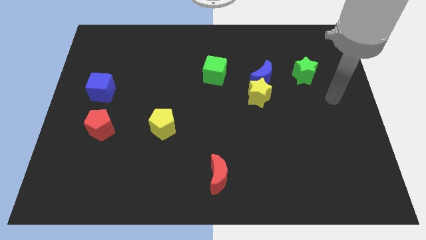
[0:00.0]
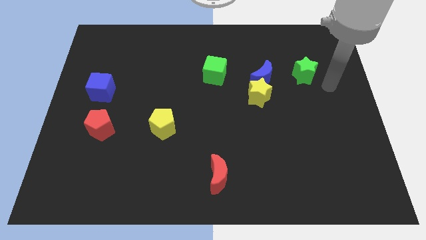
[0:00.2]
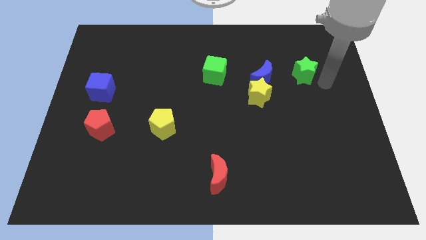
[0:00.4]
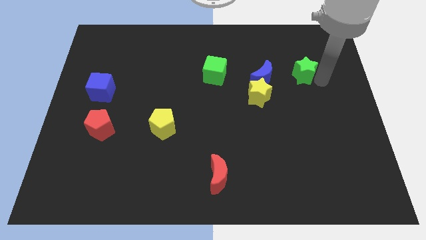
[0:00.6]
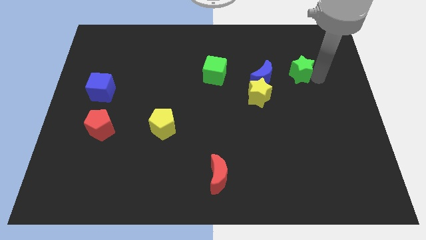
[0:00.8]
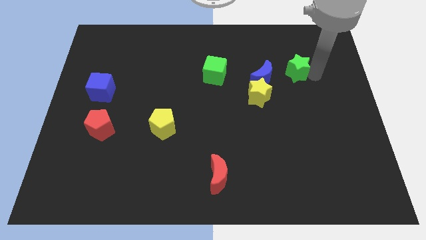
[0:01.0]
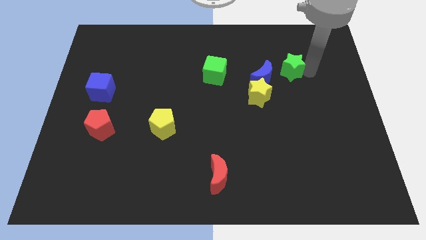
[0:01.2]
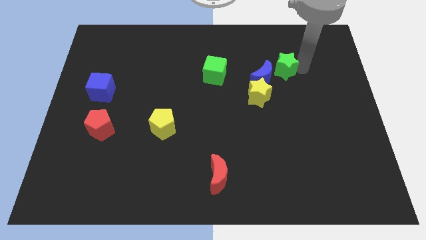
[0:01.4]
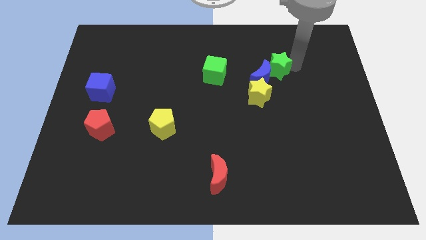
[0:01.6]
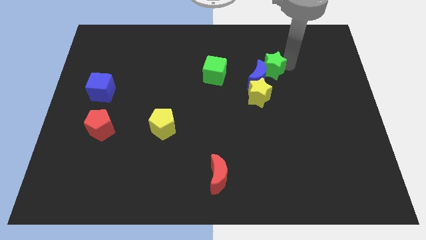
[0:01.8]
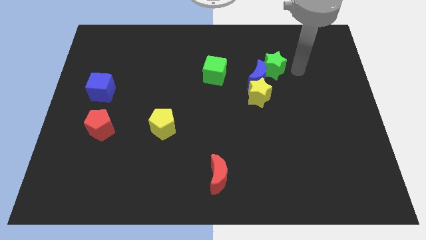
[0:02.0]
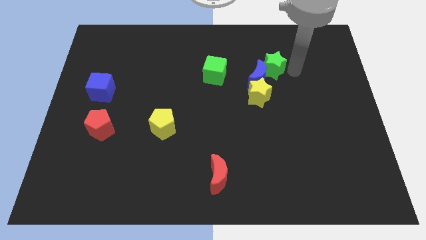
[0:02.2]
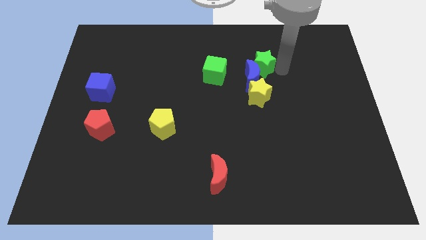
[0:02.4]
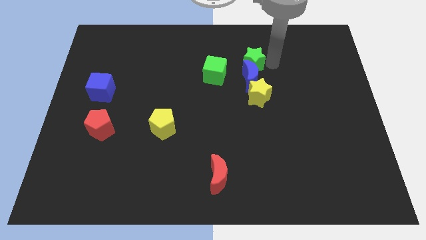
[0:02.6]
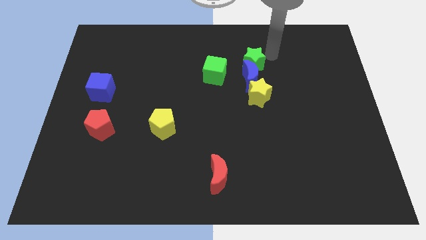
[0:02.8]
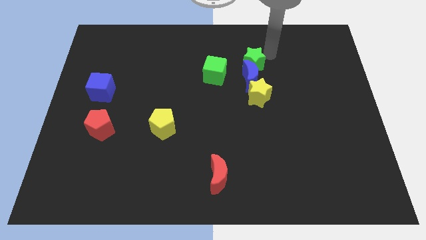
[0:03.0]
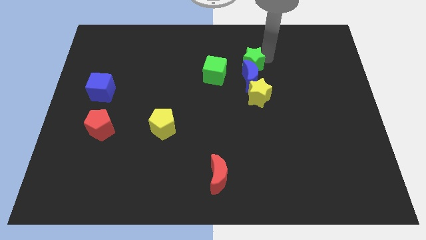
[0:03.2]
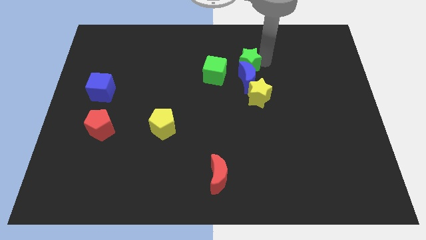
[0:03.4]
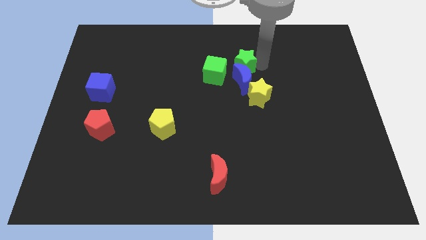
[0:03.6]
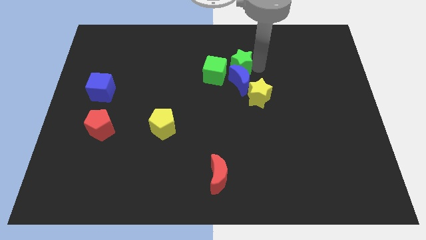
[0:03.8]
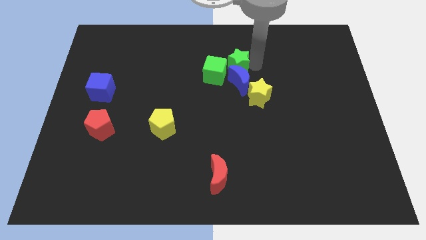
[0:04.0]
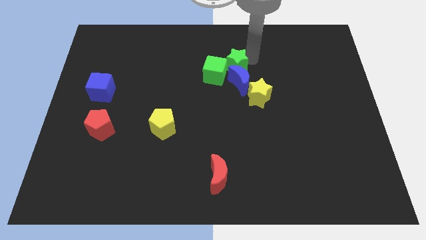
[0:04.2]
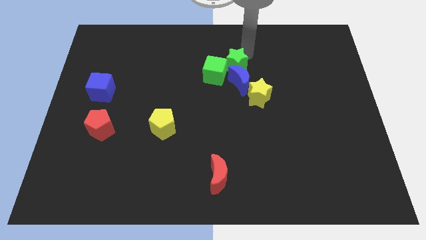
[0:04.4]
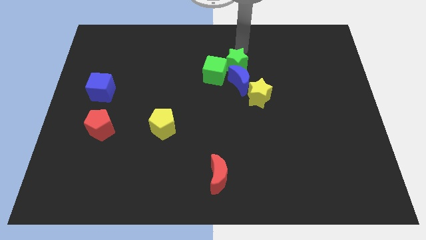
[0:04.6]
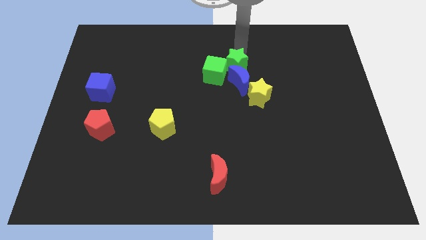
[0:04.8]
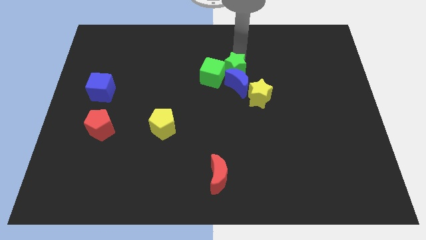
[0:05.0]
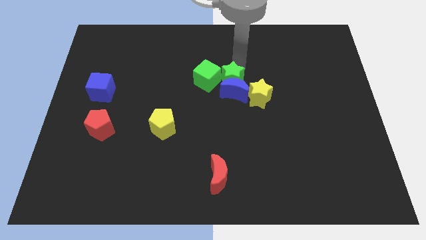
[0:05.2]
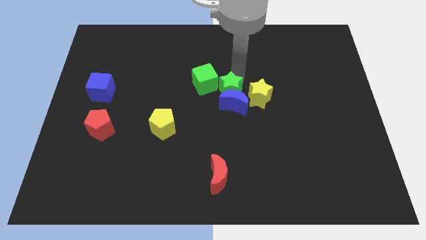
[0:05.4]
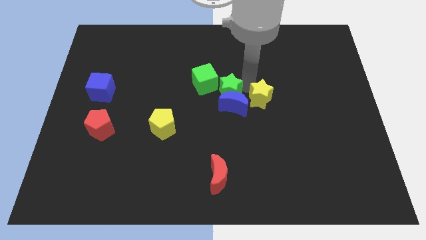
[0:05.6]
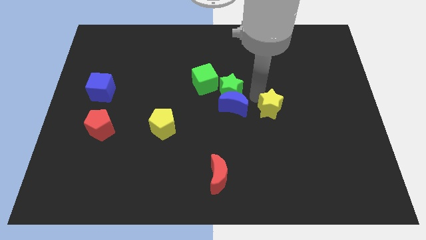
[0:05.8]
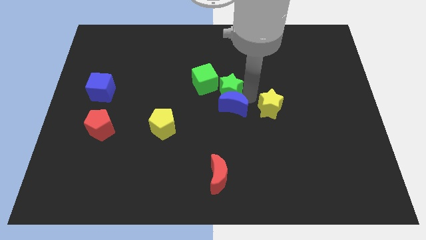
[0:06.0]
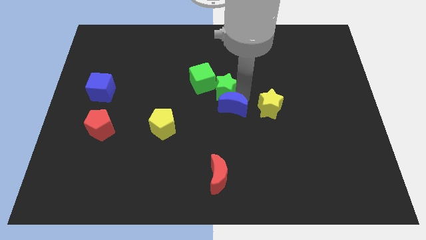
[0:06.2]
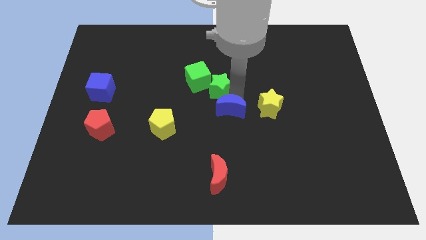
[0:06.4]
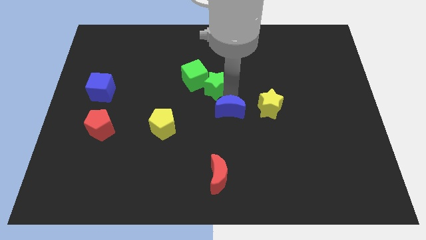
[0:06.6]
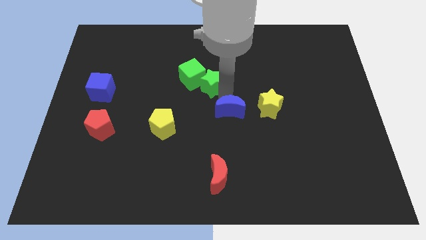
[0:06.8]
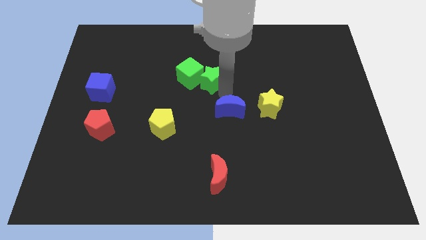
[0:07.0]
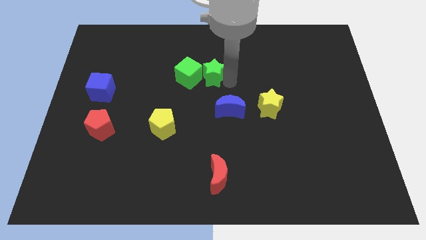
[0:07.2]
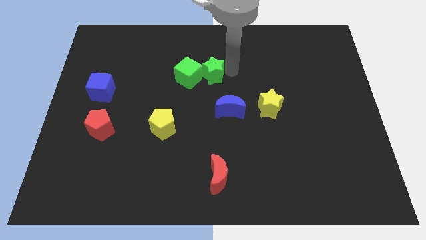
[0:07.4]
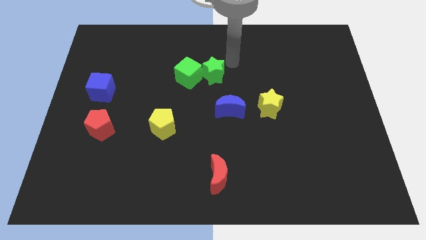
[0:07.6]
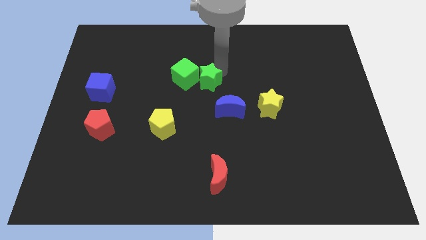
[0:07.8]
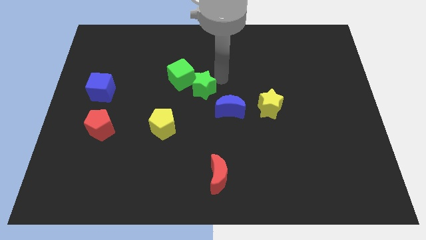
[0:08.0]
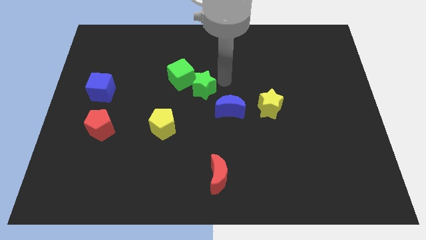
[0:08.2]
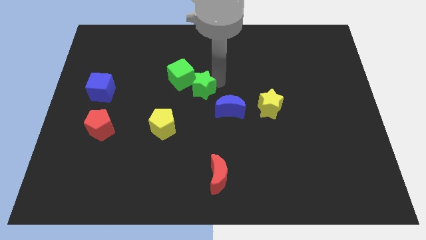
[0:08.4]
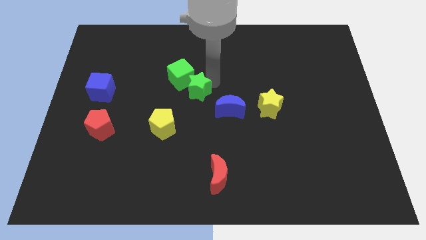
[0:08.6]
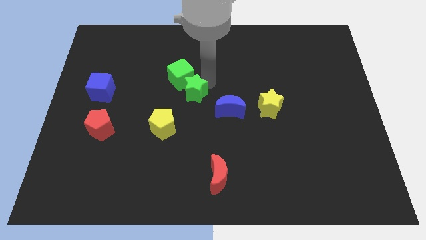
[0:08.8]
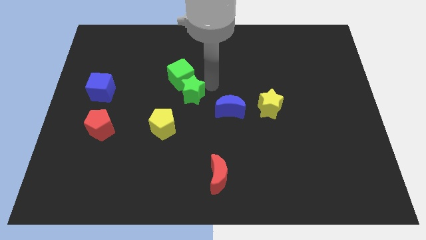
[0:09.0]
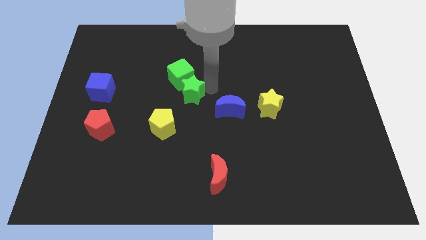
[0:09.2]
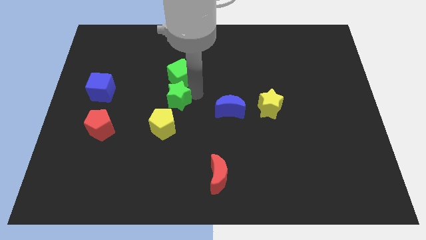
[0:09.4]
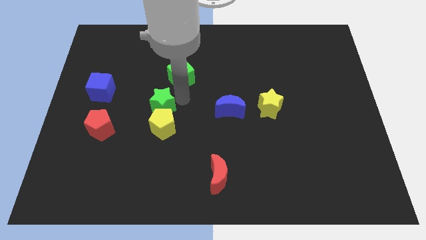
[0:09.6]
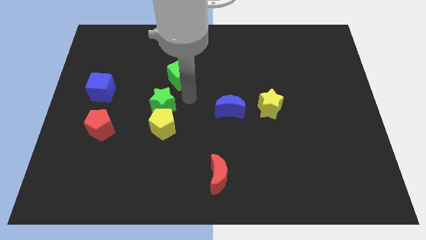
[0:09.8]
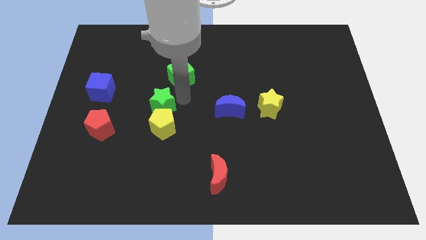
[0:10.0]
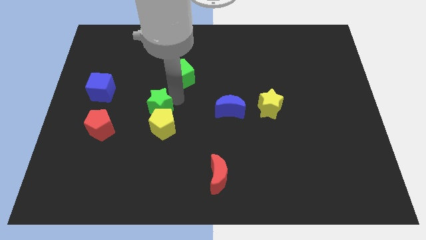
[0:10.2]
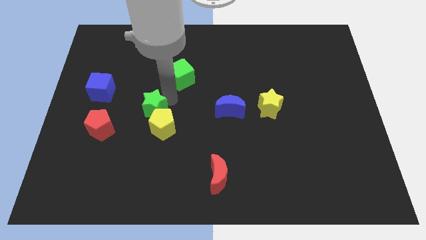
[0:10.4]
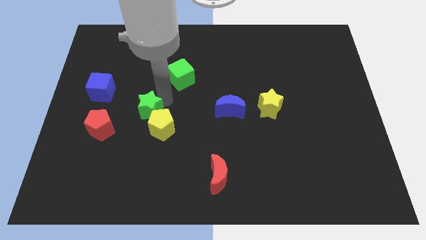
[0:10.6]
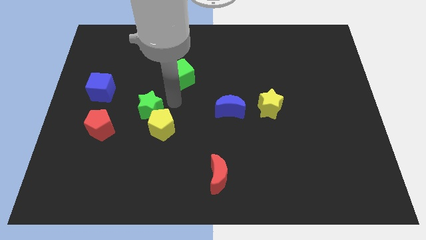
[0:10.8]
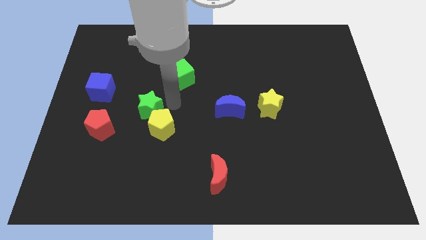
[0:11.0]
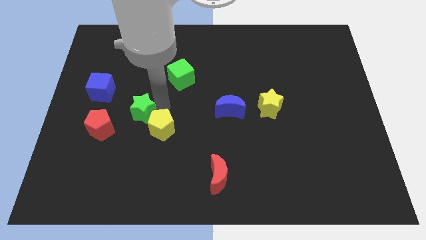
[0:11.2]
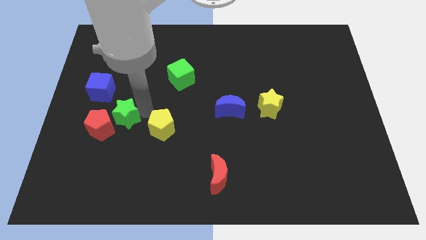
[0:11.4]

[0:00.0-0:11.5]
push the green star to the red pentagon

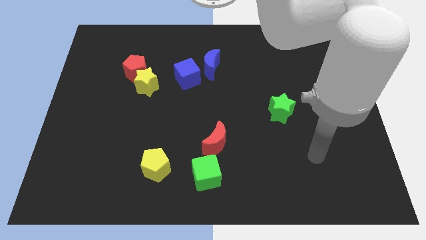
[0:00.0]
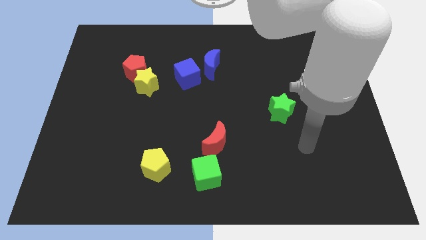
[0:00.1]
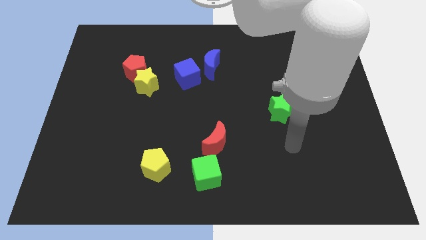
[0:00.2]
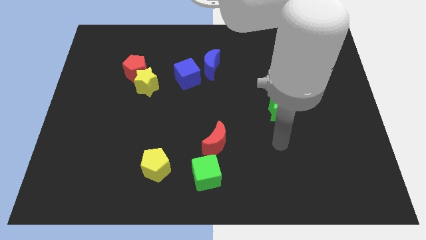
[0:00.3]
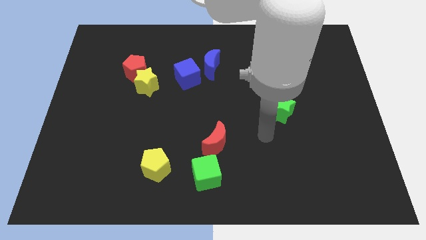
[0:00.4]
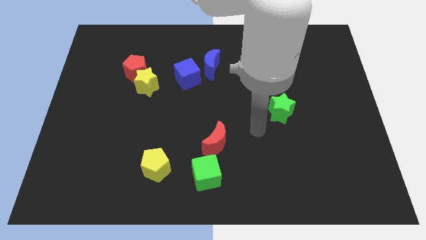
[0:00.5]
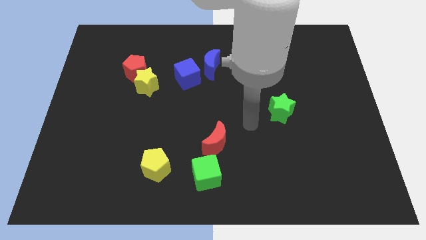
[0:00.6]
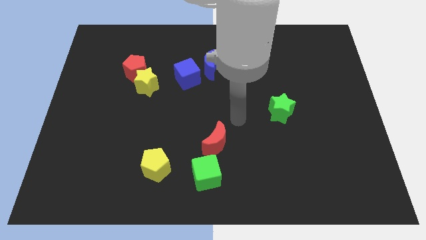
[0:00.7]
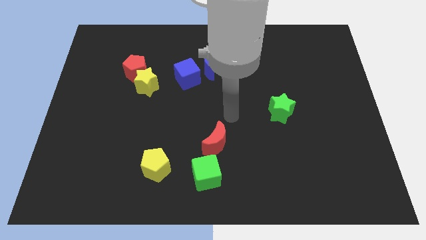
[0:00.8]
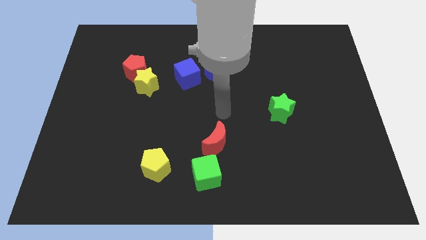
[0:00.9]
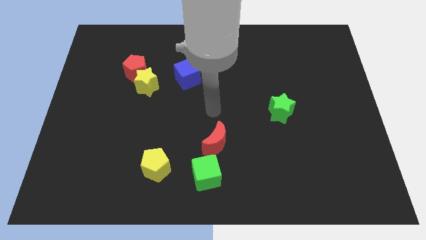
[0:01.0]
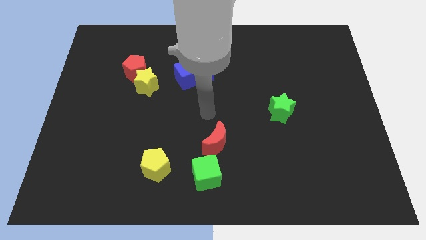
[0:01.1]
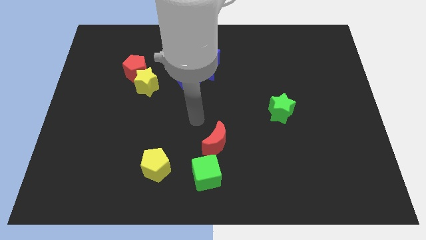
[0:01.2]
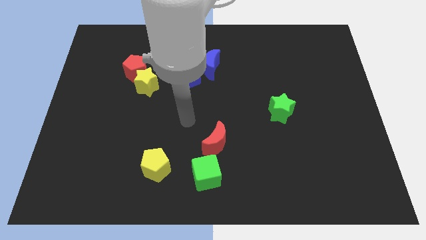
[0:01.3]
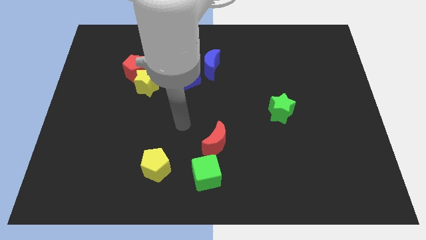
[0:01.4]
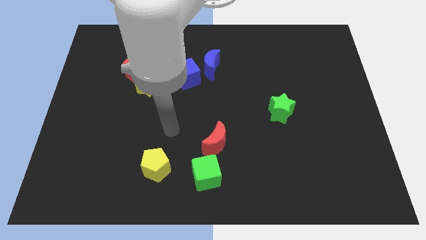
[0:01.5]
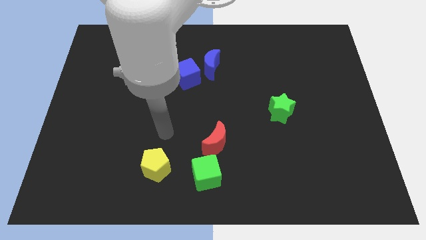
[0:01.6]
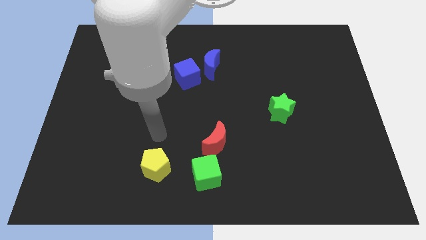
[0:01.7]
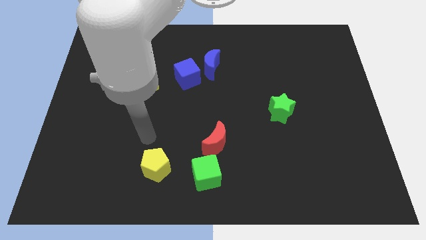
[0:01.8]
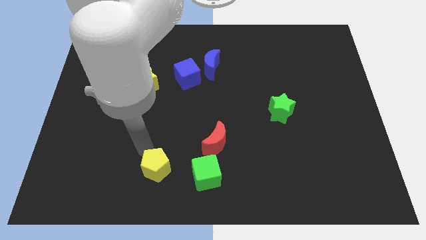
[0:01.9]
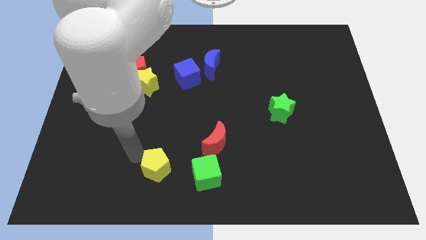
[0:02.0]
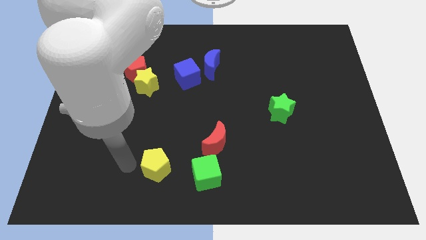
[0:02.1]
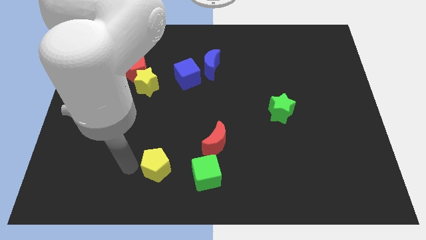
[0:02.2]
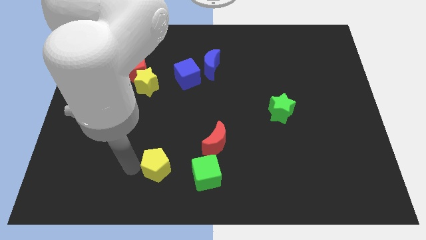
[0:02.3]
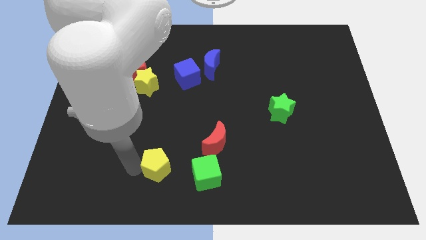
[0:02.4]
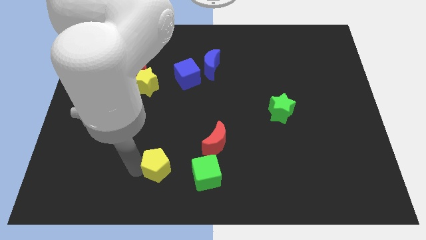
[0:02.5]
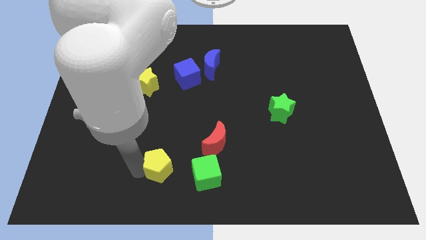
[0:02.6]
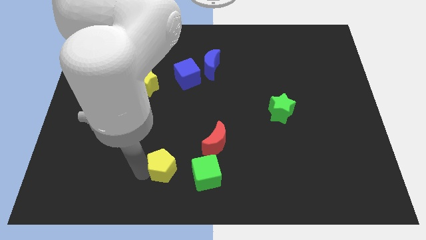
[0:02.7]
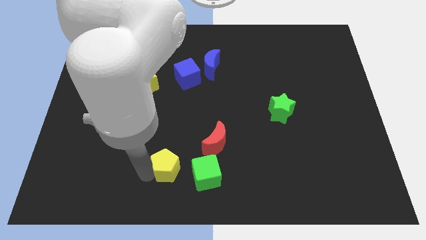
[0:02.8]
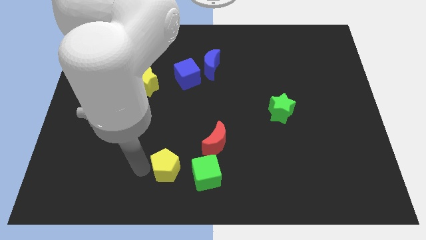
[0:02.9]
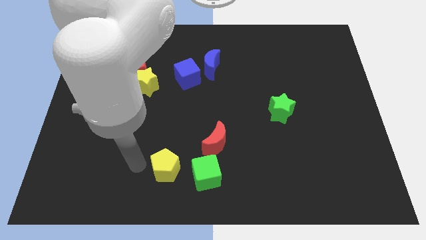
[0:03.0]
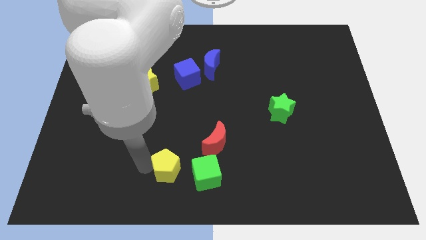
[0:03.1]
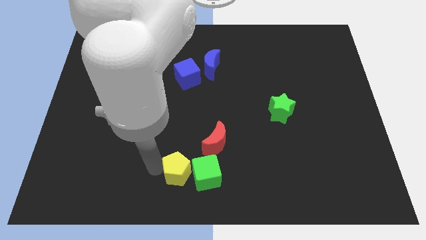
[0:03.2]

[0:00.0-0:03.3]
slide the yellow pentagon close to the green cube
